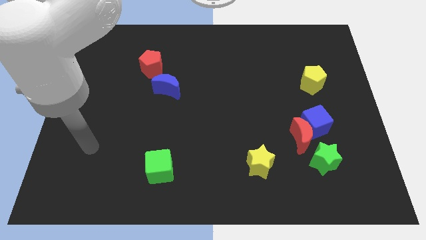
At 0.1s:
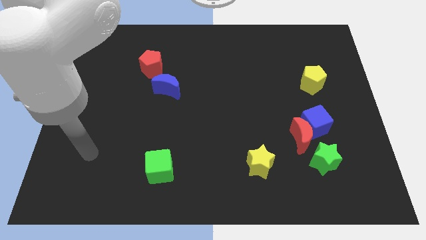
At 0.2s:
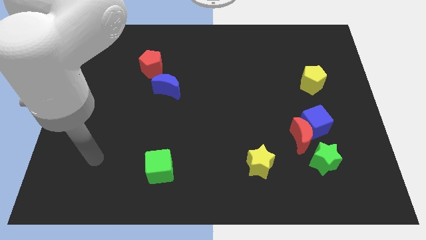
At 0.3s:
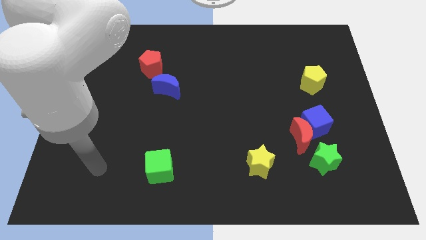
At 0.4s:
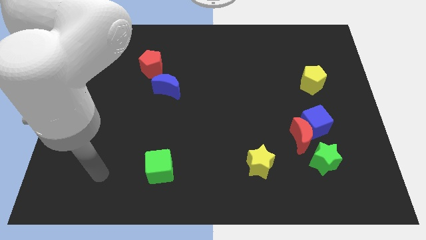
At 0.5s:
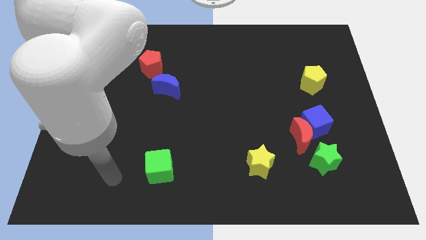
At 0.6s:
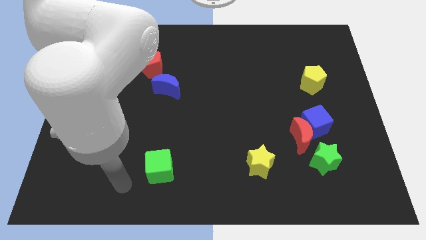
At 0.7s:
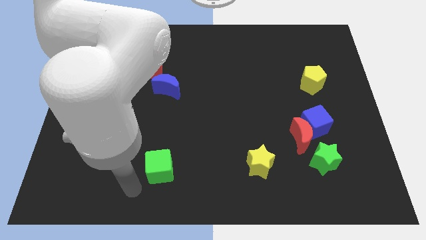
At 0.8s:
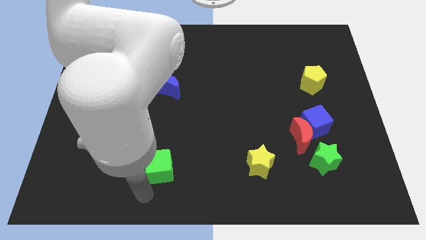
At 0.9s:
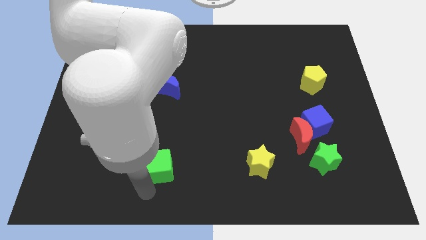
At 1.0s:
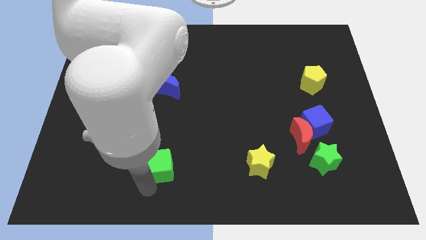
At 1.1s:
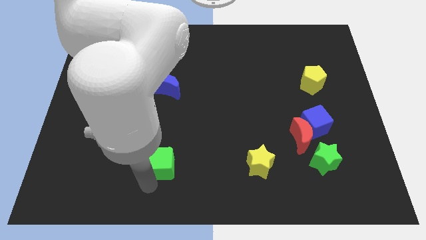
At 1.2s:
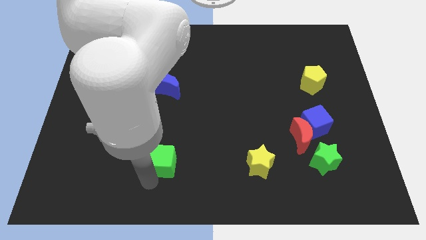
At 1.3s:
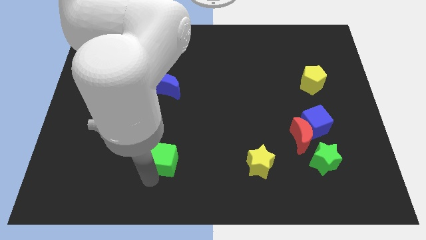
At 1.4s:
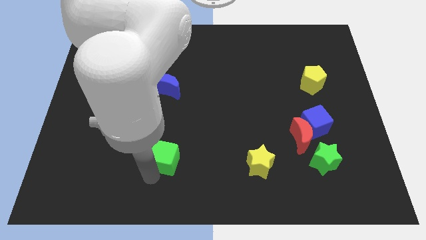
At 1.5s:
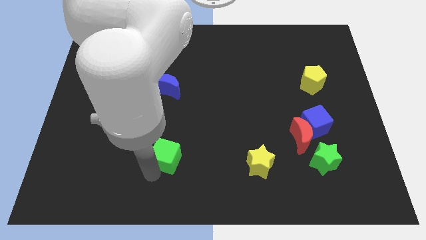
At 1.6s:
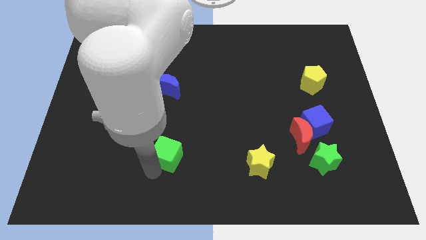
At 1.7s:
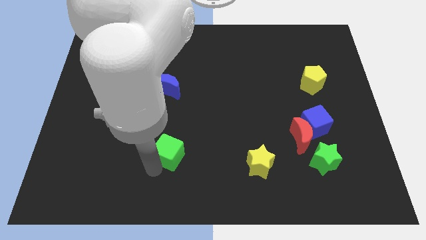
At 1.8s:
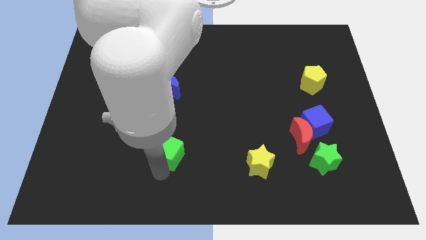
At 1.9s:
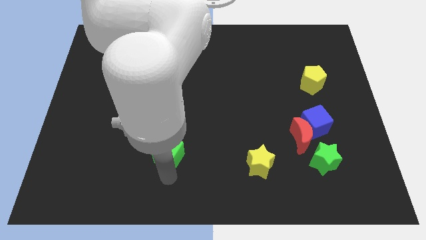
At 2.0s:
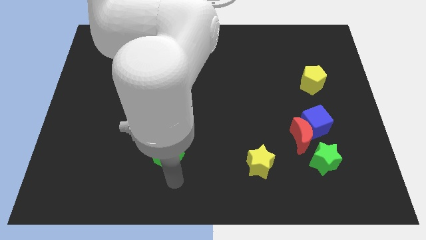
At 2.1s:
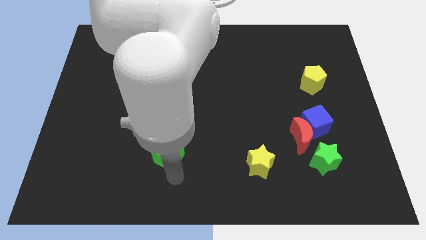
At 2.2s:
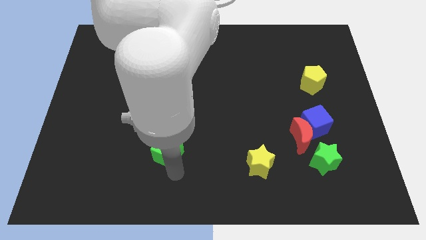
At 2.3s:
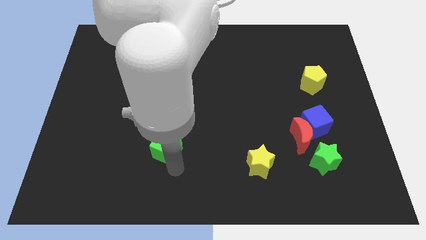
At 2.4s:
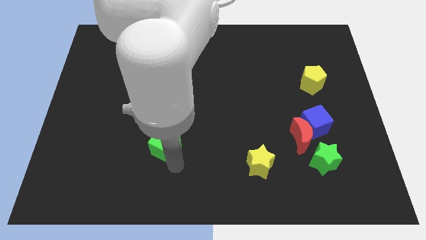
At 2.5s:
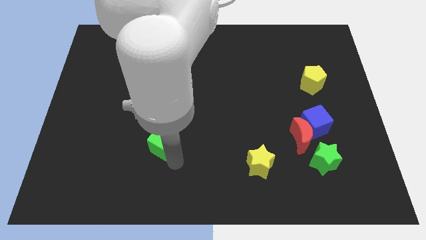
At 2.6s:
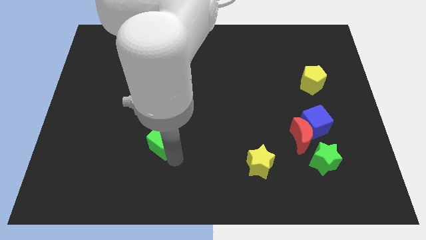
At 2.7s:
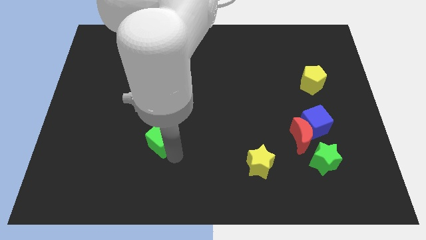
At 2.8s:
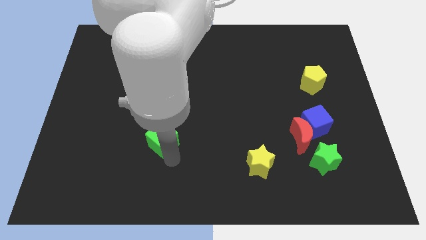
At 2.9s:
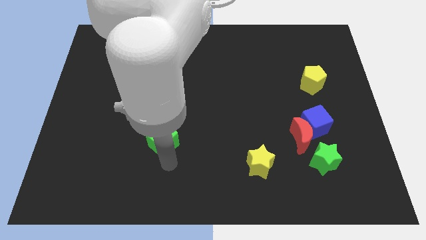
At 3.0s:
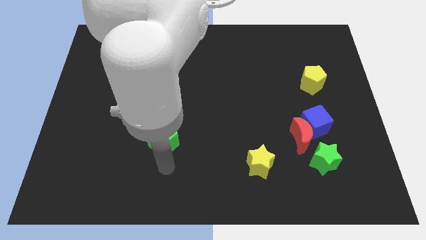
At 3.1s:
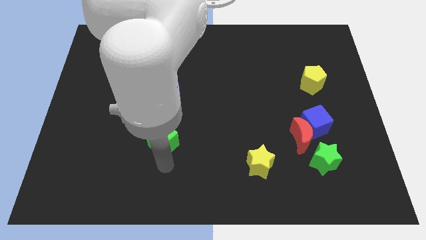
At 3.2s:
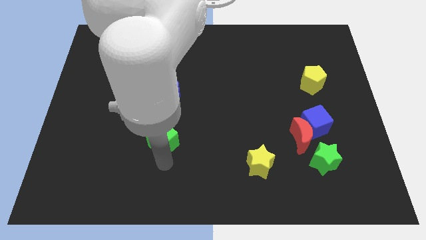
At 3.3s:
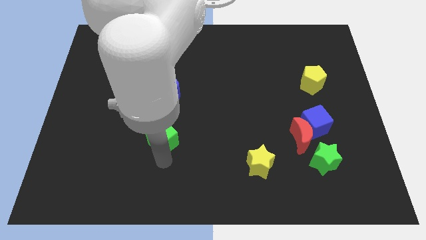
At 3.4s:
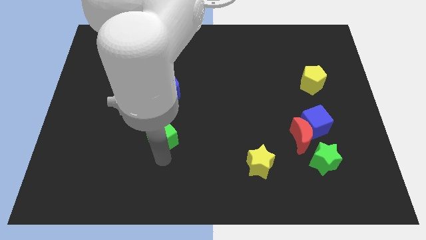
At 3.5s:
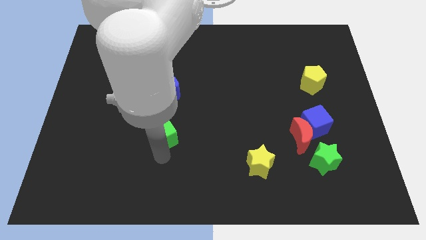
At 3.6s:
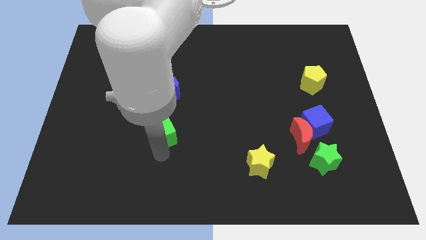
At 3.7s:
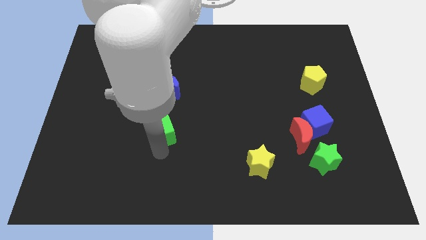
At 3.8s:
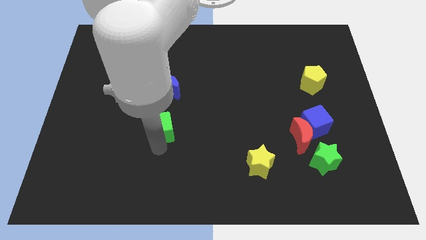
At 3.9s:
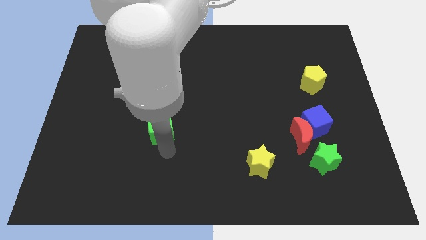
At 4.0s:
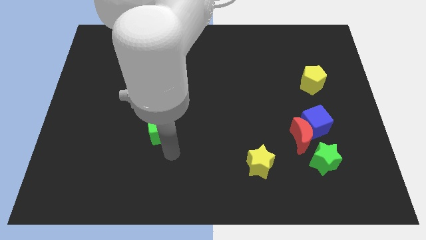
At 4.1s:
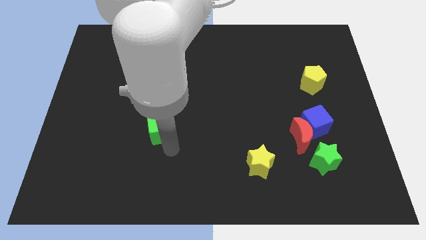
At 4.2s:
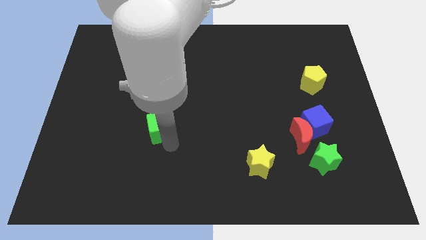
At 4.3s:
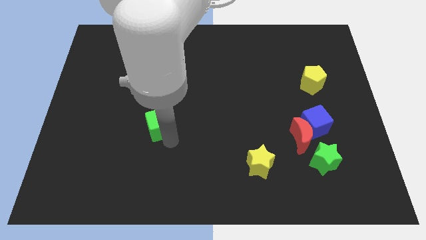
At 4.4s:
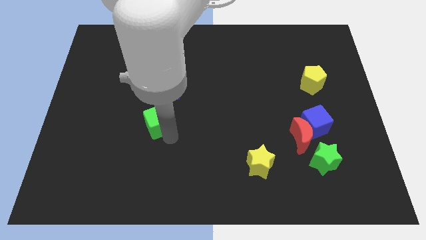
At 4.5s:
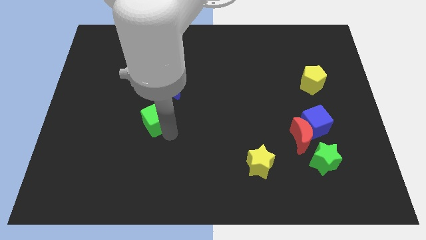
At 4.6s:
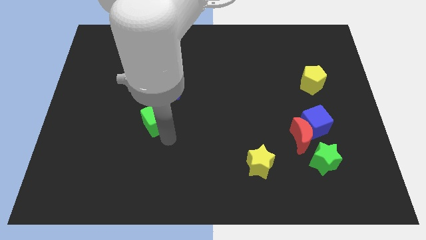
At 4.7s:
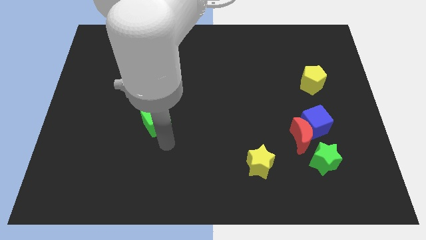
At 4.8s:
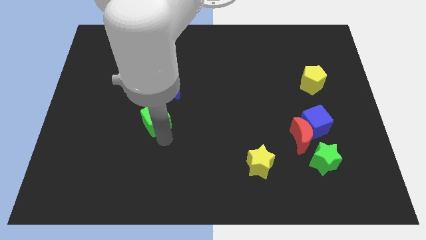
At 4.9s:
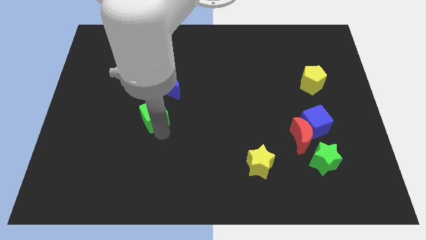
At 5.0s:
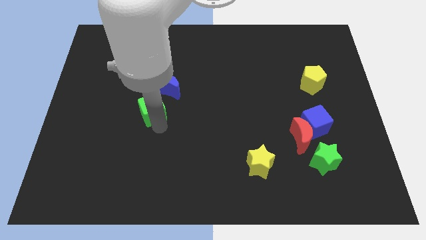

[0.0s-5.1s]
push the green cube to the bottom of the red pentagon

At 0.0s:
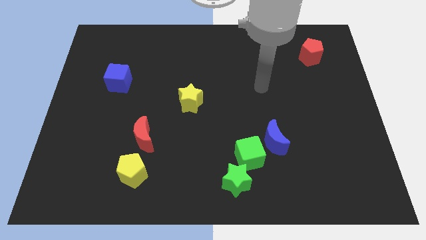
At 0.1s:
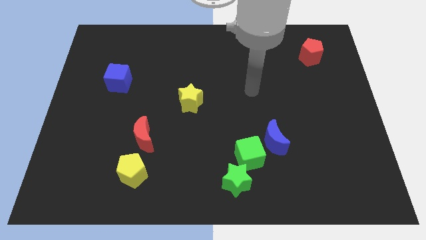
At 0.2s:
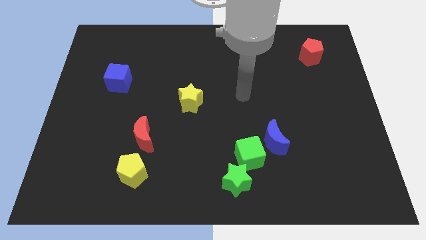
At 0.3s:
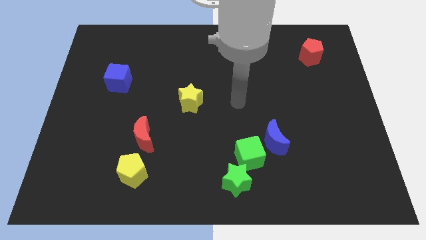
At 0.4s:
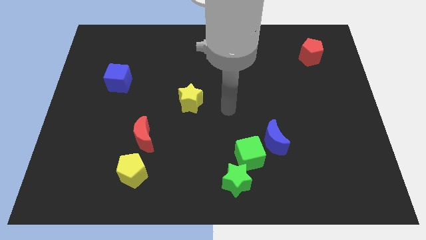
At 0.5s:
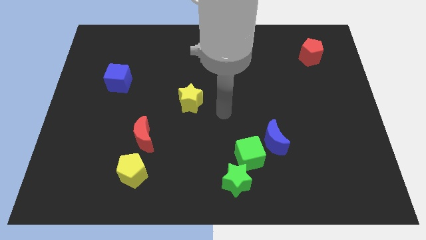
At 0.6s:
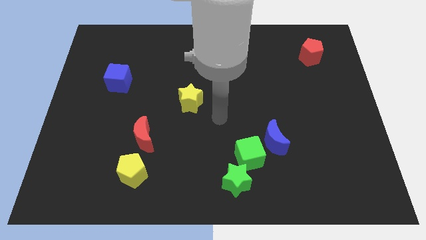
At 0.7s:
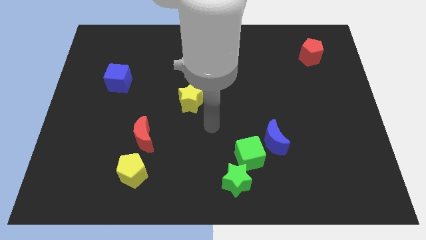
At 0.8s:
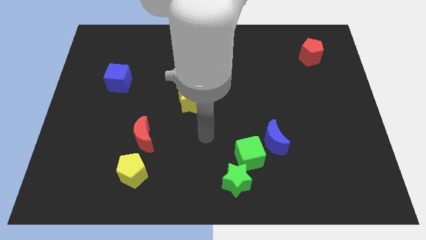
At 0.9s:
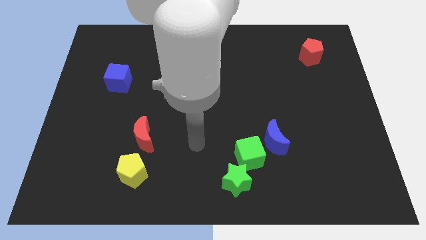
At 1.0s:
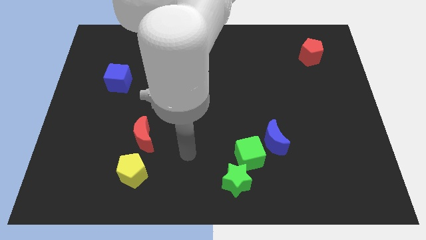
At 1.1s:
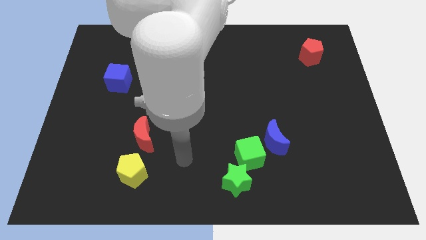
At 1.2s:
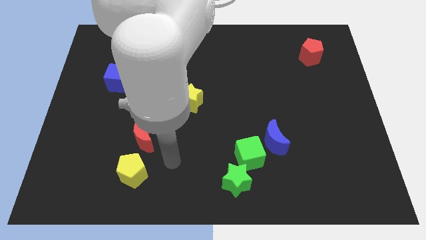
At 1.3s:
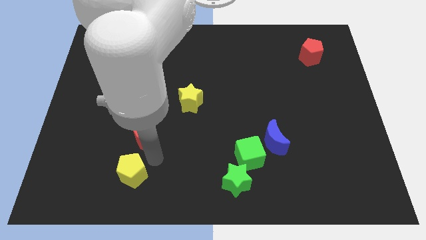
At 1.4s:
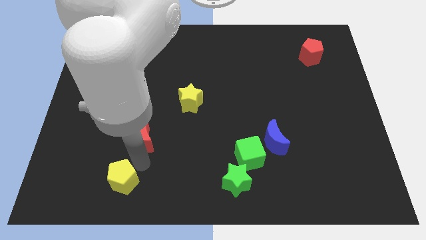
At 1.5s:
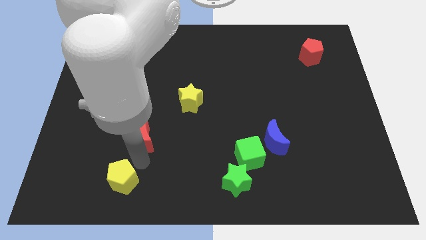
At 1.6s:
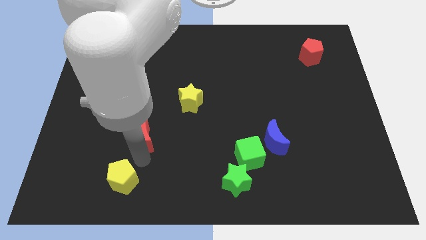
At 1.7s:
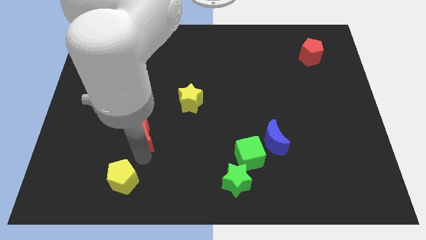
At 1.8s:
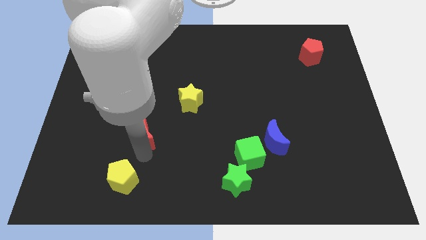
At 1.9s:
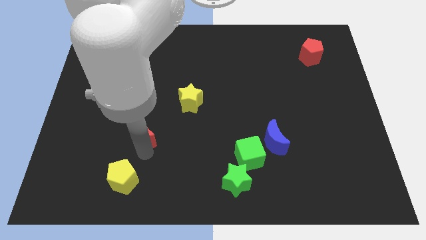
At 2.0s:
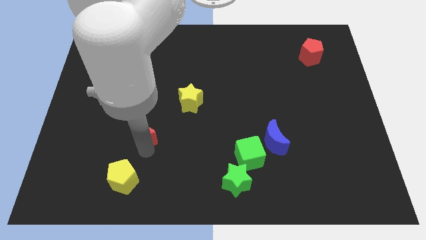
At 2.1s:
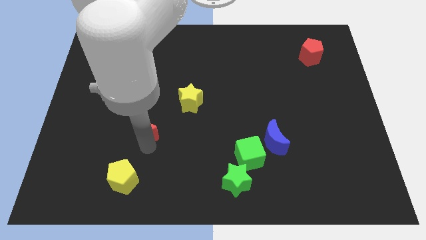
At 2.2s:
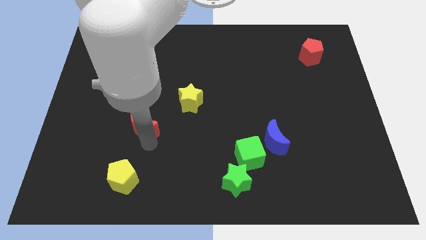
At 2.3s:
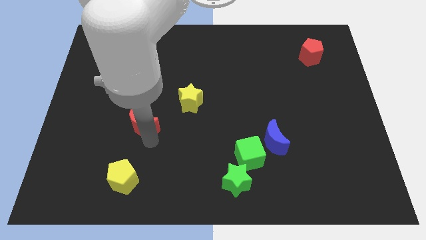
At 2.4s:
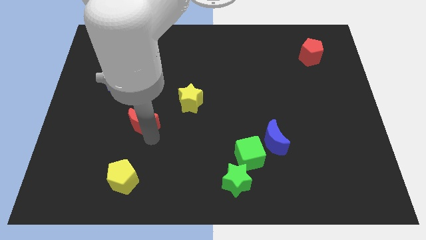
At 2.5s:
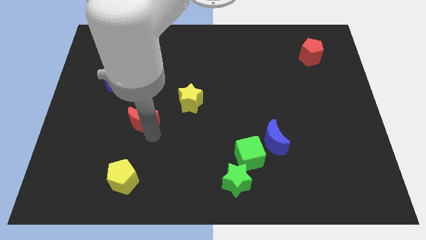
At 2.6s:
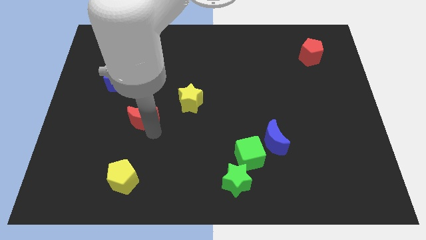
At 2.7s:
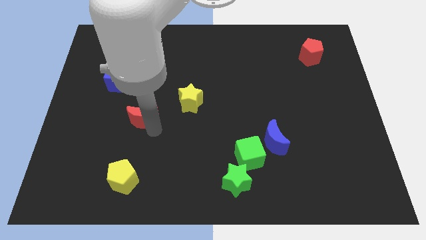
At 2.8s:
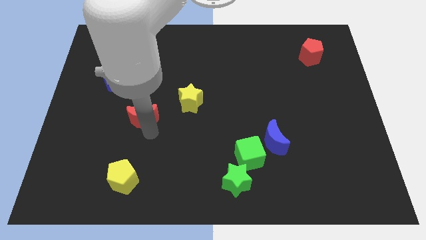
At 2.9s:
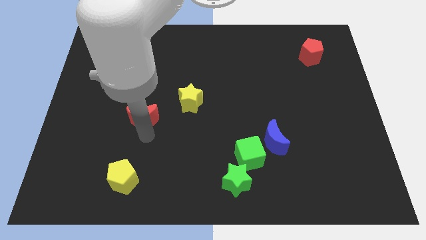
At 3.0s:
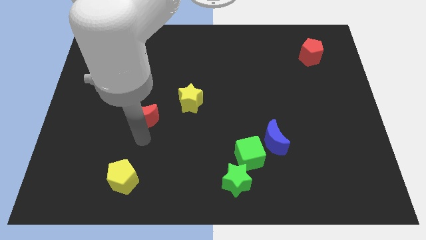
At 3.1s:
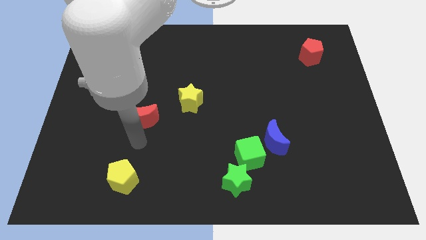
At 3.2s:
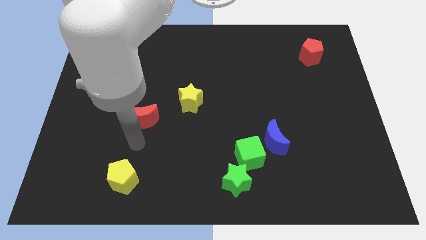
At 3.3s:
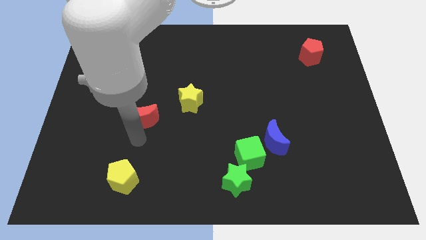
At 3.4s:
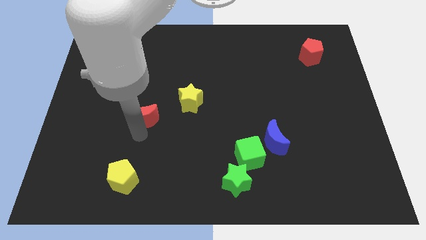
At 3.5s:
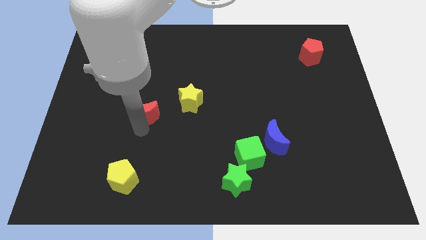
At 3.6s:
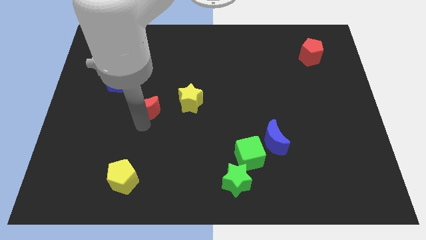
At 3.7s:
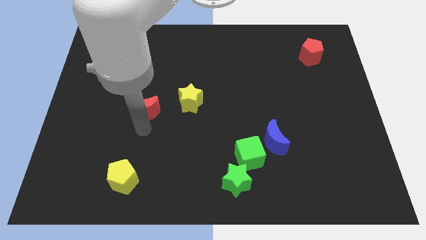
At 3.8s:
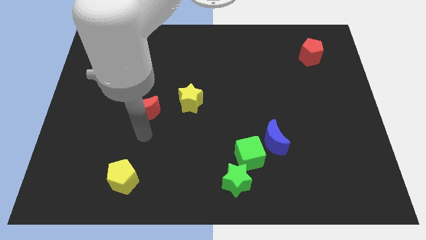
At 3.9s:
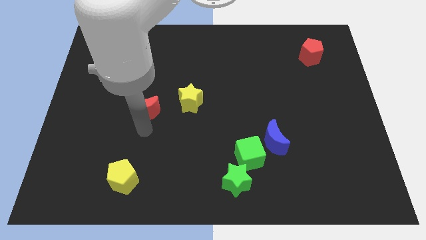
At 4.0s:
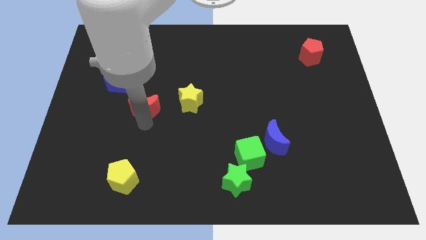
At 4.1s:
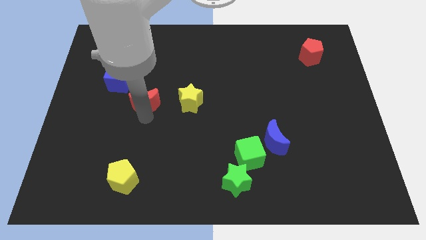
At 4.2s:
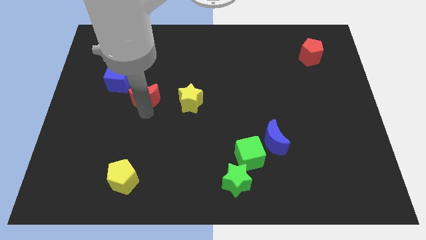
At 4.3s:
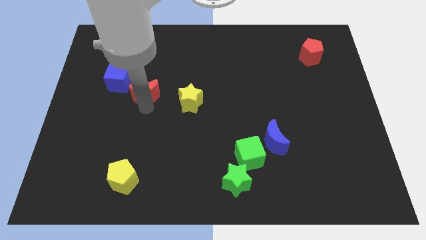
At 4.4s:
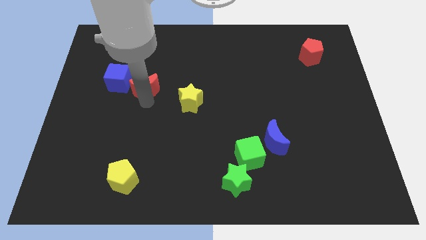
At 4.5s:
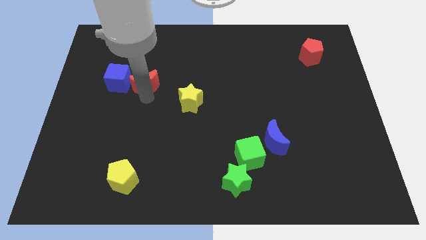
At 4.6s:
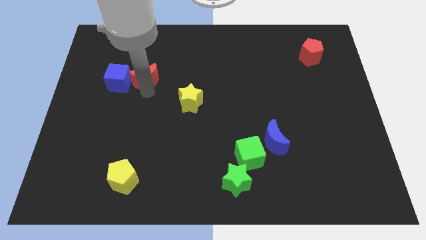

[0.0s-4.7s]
move the red moon to the top right of the blue cube
